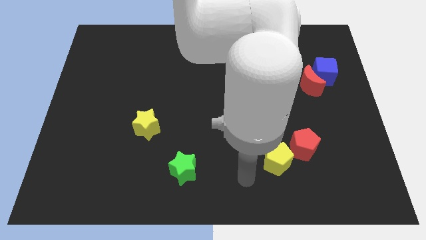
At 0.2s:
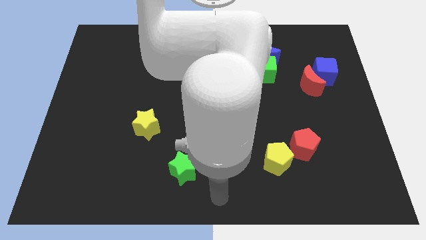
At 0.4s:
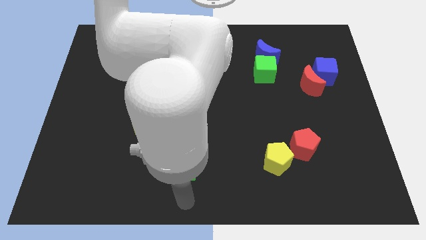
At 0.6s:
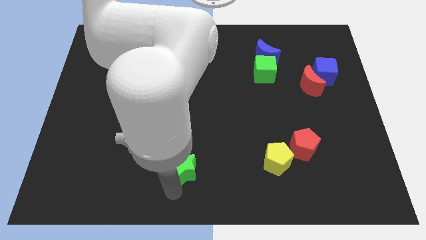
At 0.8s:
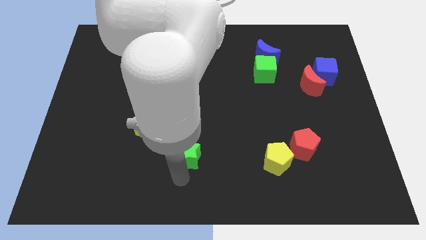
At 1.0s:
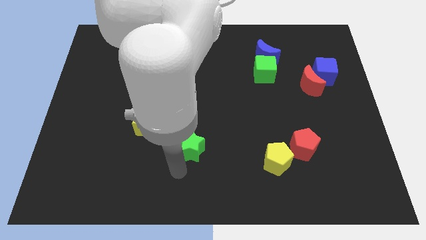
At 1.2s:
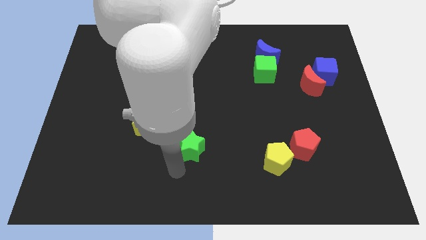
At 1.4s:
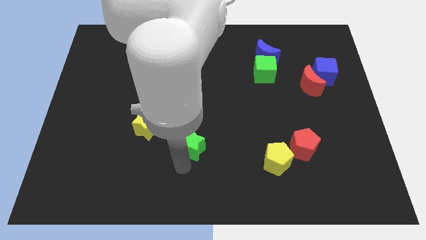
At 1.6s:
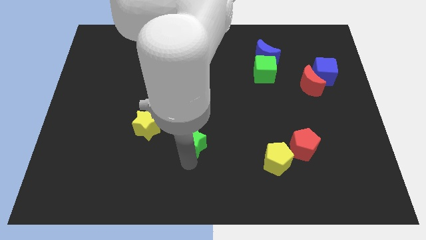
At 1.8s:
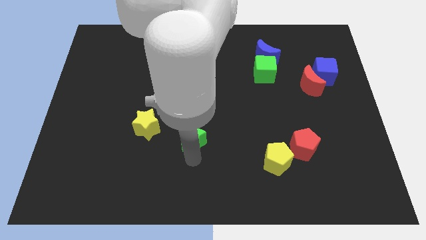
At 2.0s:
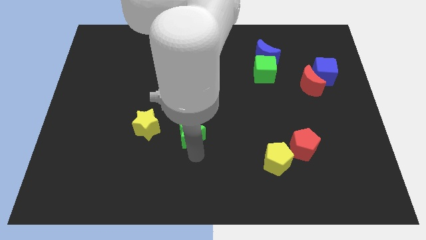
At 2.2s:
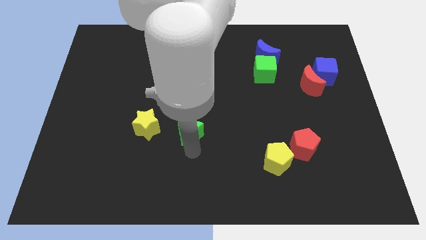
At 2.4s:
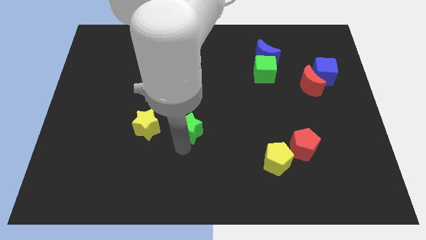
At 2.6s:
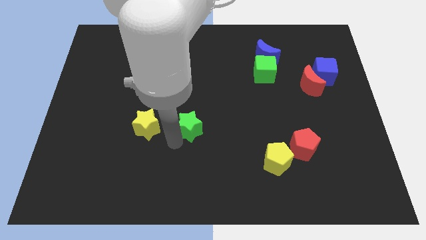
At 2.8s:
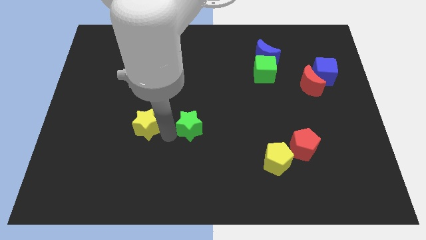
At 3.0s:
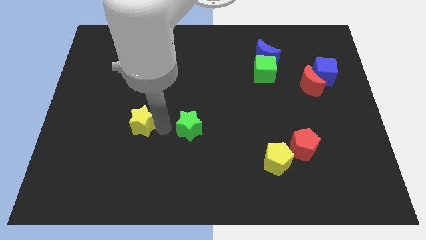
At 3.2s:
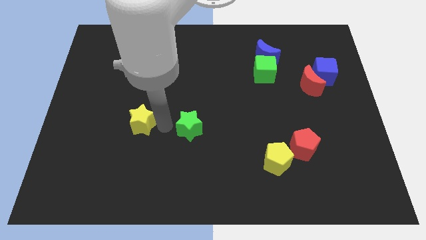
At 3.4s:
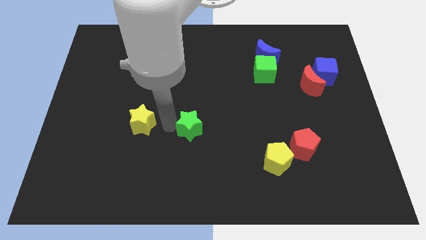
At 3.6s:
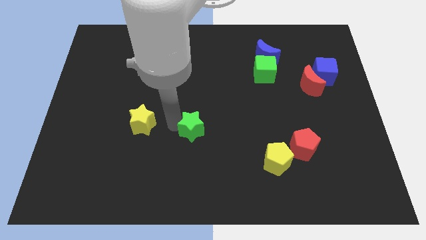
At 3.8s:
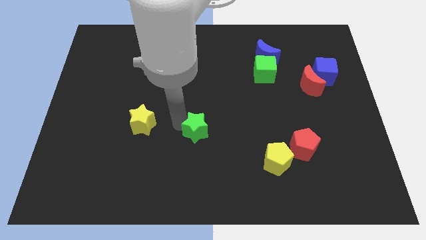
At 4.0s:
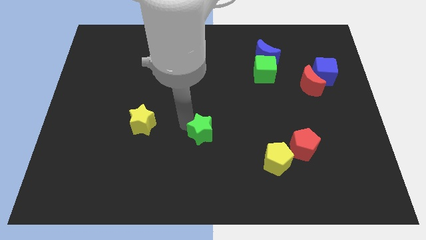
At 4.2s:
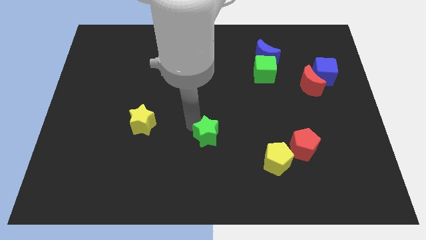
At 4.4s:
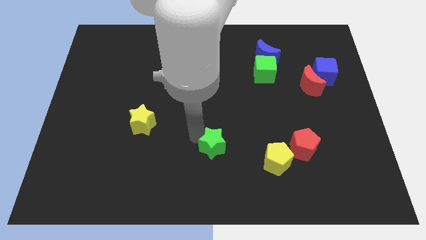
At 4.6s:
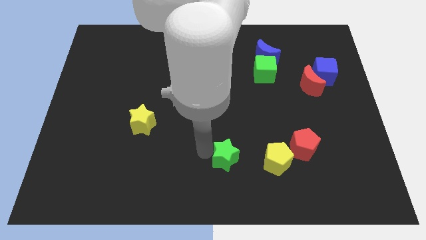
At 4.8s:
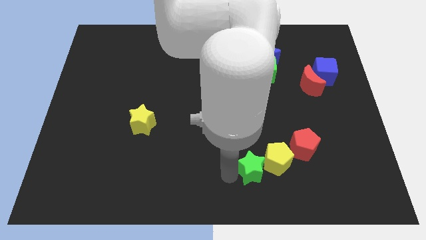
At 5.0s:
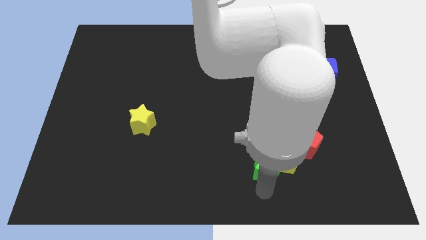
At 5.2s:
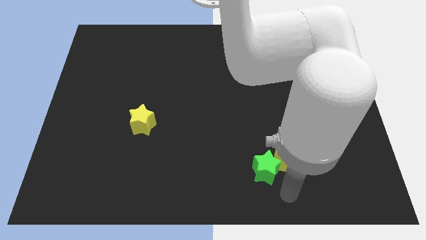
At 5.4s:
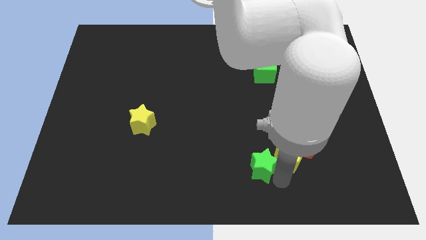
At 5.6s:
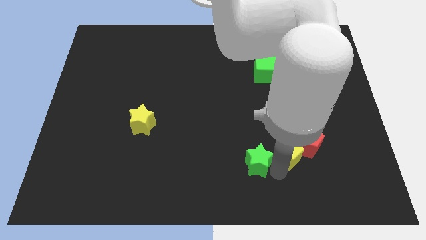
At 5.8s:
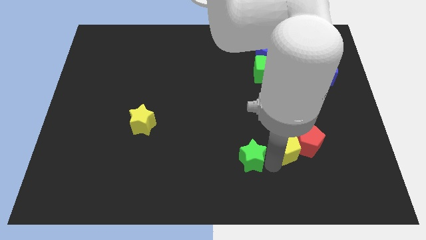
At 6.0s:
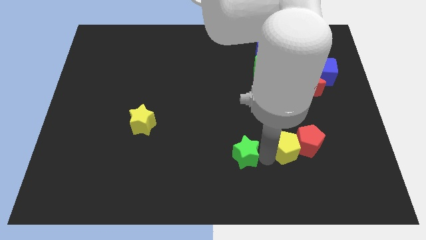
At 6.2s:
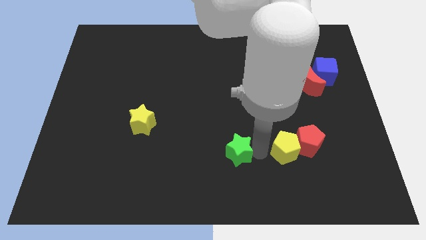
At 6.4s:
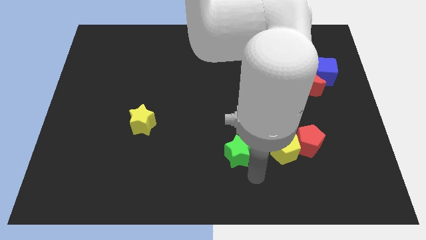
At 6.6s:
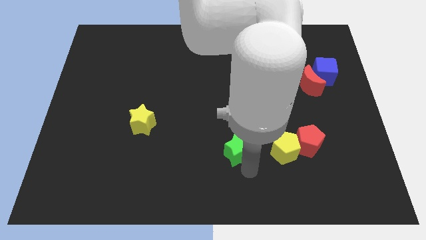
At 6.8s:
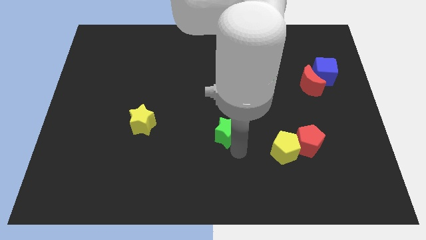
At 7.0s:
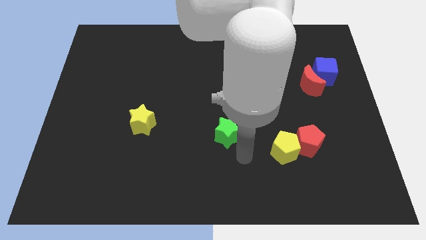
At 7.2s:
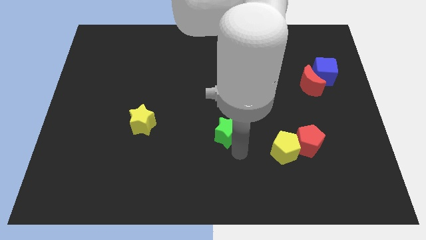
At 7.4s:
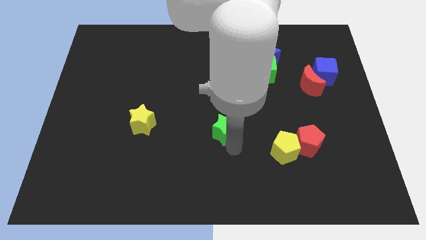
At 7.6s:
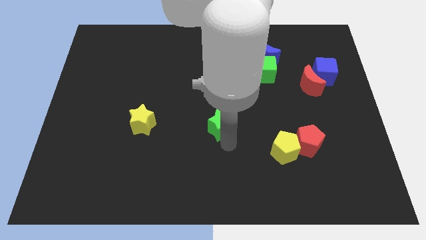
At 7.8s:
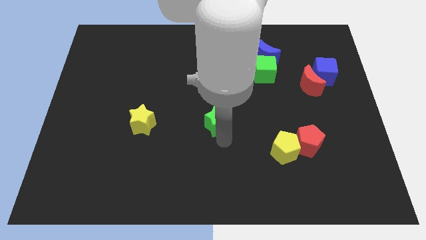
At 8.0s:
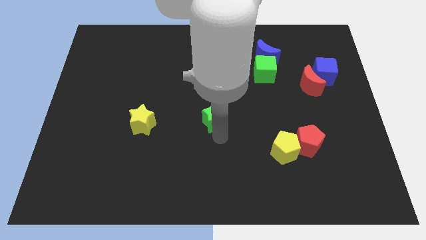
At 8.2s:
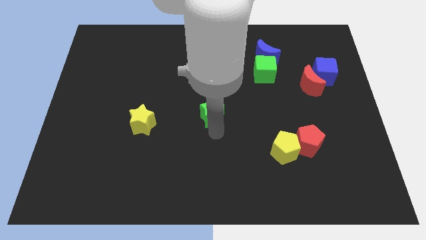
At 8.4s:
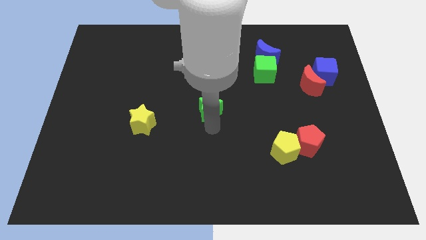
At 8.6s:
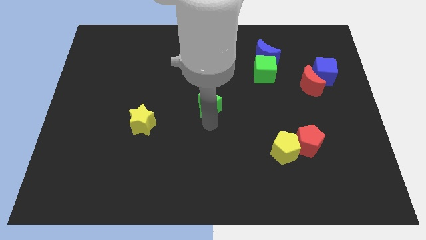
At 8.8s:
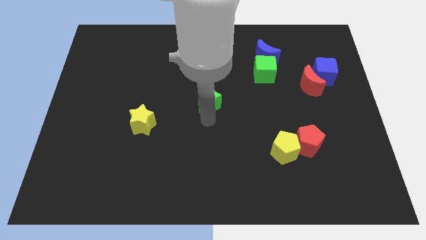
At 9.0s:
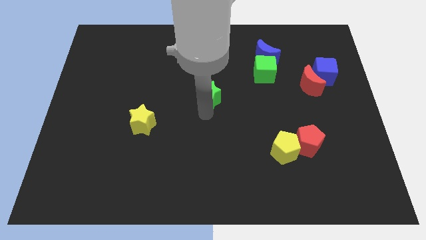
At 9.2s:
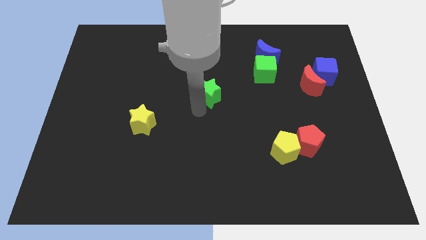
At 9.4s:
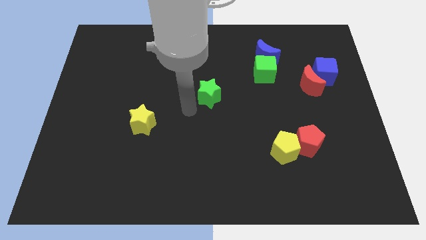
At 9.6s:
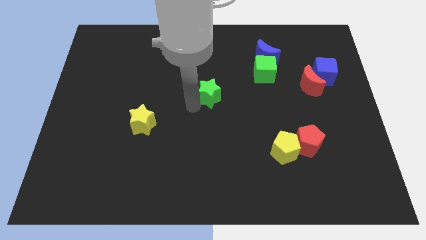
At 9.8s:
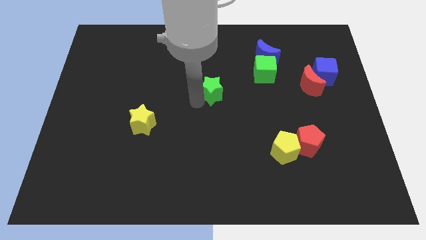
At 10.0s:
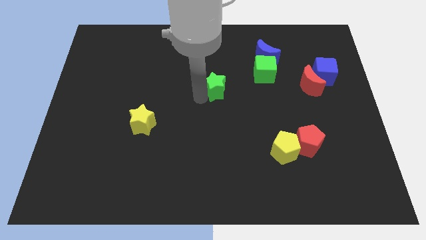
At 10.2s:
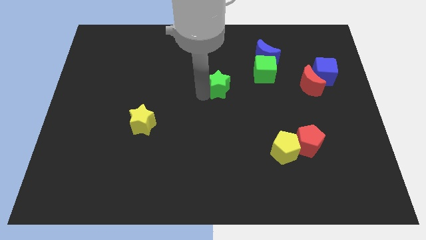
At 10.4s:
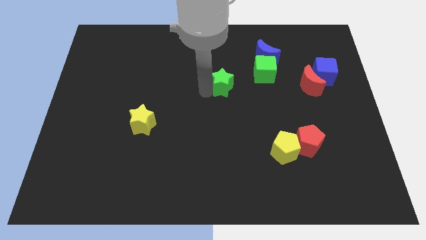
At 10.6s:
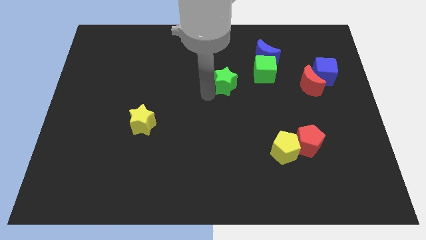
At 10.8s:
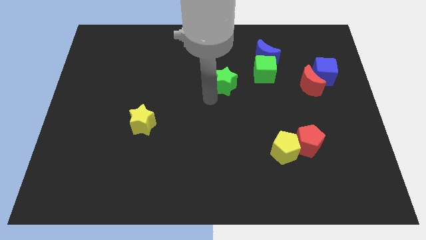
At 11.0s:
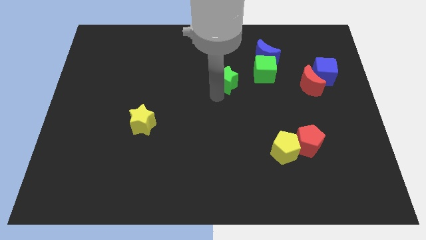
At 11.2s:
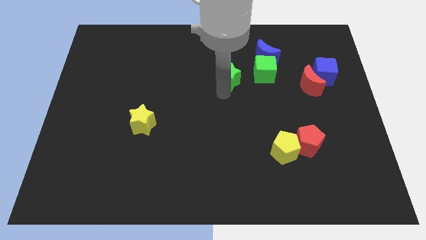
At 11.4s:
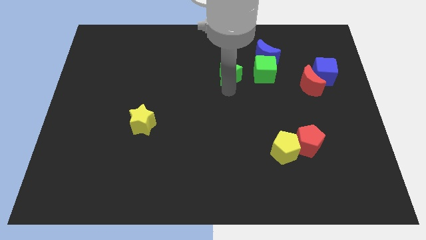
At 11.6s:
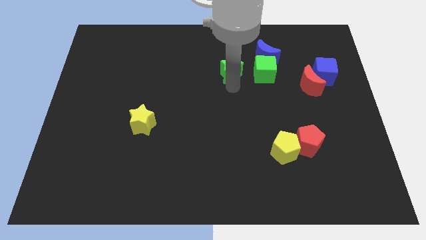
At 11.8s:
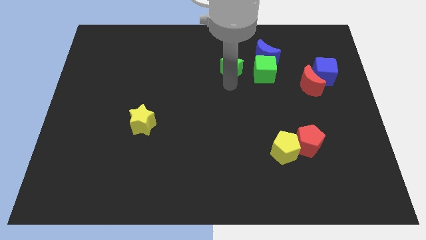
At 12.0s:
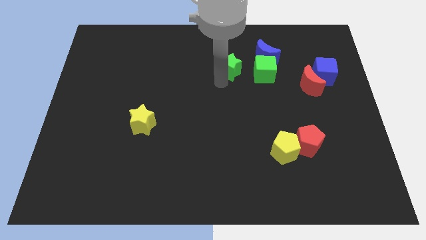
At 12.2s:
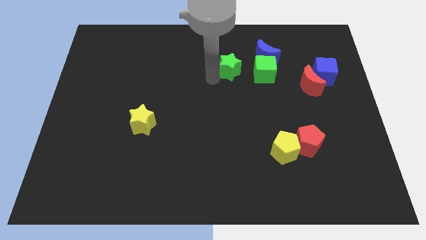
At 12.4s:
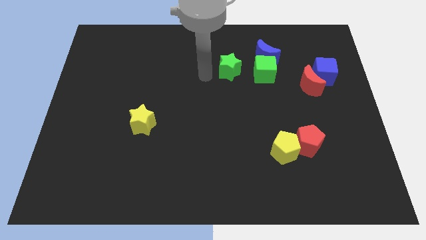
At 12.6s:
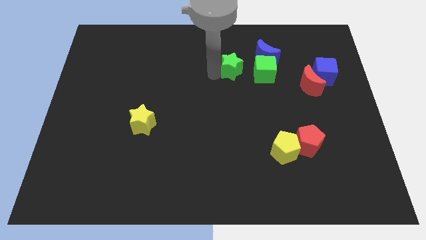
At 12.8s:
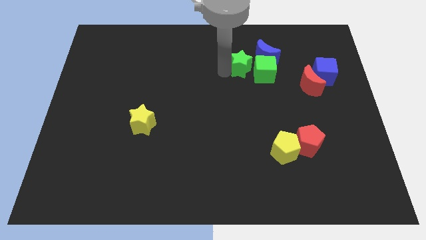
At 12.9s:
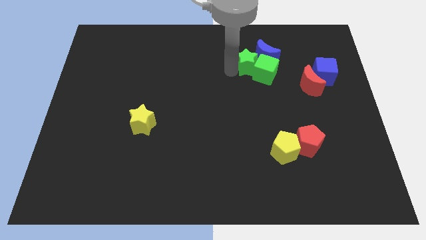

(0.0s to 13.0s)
push the green star next to the blue moon

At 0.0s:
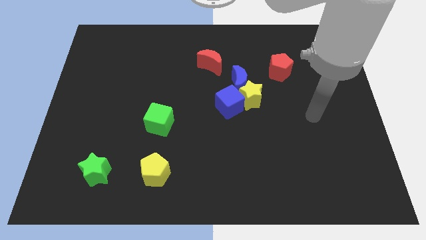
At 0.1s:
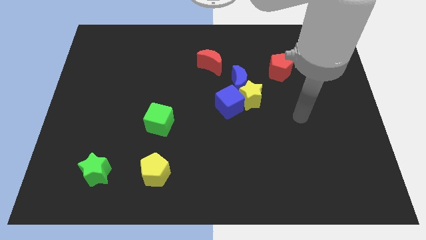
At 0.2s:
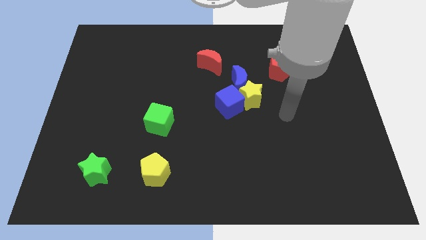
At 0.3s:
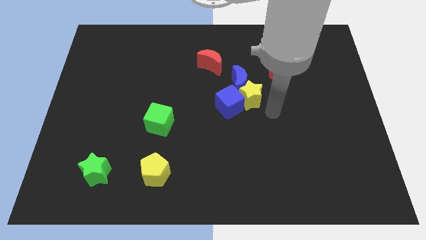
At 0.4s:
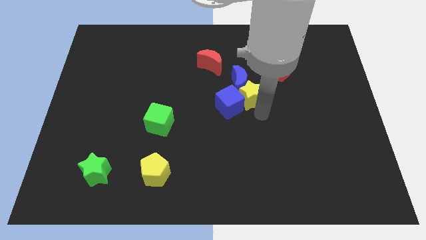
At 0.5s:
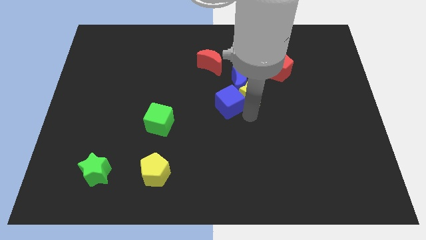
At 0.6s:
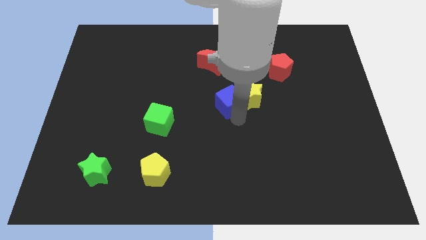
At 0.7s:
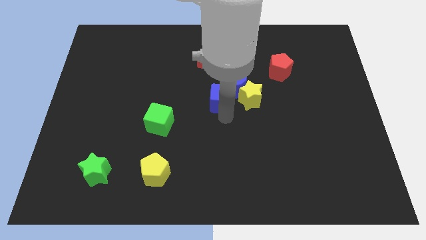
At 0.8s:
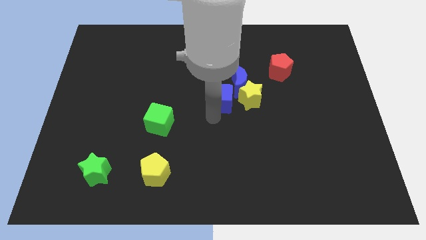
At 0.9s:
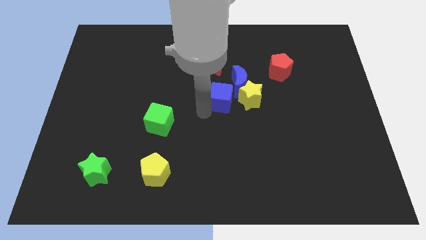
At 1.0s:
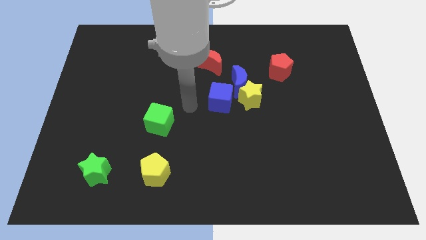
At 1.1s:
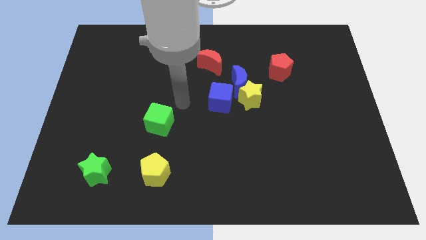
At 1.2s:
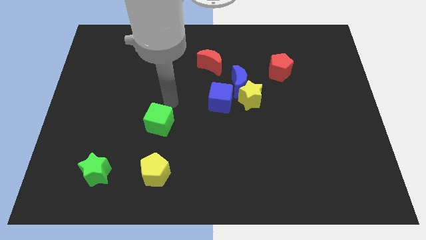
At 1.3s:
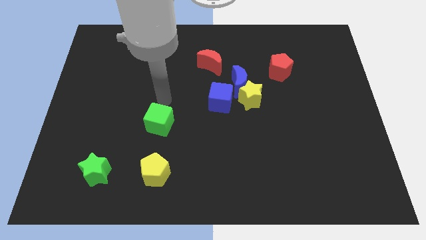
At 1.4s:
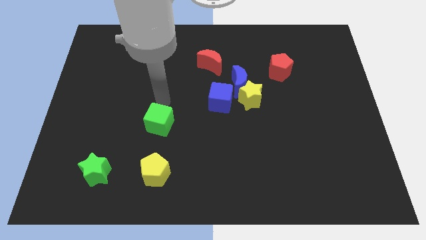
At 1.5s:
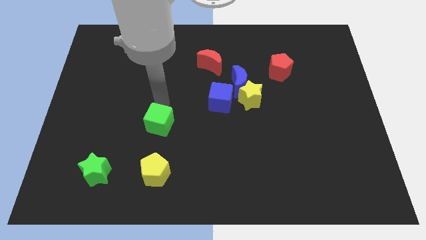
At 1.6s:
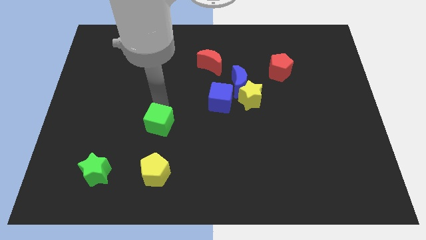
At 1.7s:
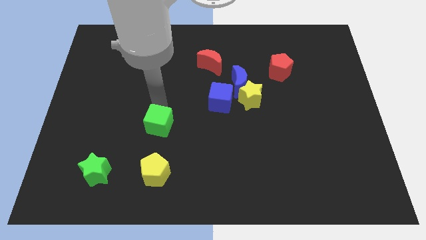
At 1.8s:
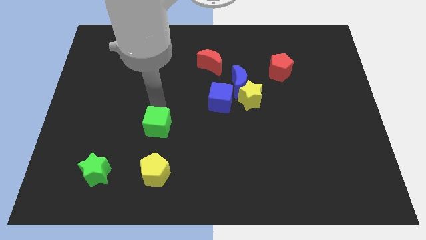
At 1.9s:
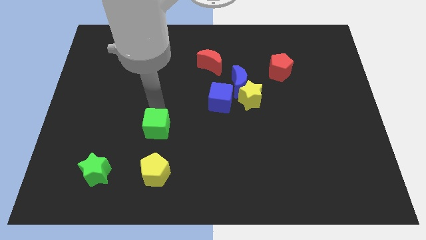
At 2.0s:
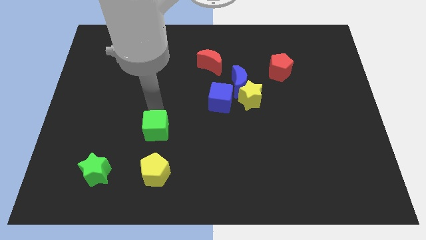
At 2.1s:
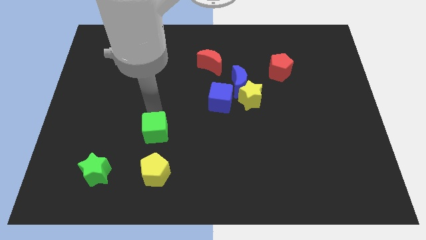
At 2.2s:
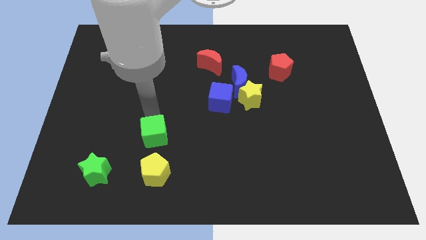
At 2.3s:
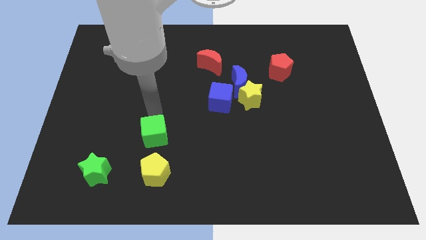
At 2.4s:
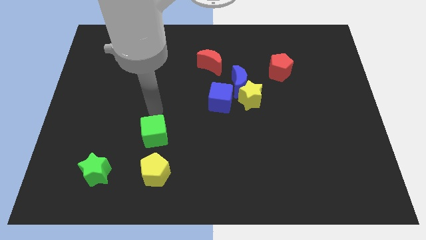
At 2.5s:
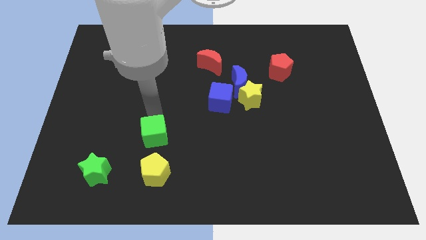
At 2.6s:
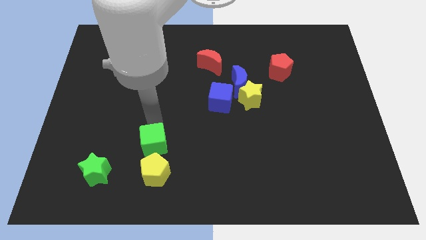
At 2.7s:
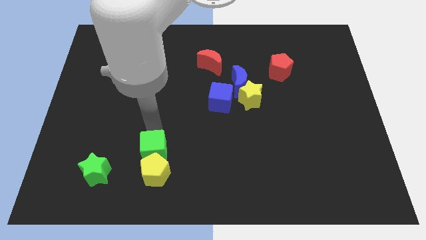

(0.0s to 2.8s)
push the green cube next to the yellow pentagon
